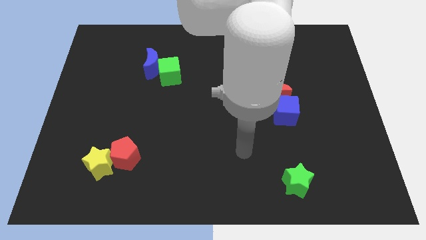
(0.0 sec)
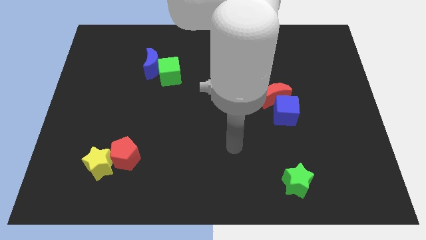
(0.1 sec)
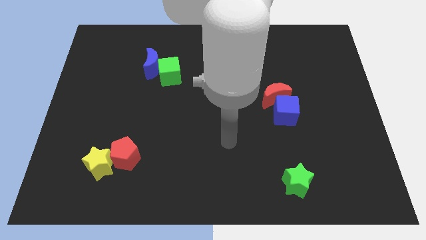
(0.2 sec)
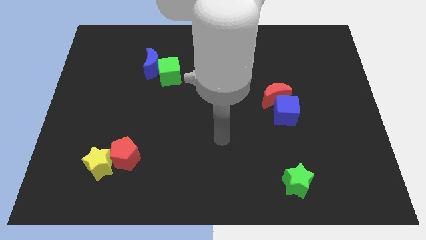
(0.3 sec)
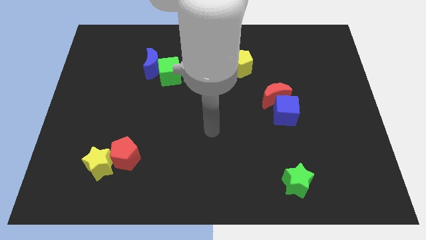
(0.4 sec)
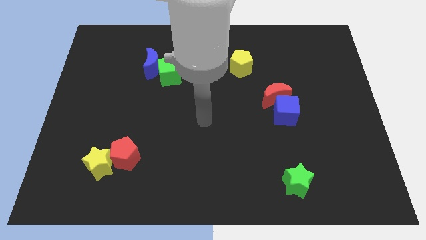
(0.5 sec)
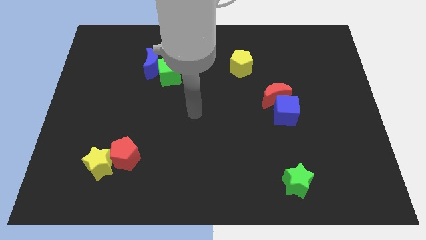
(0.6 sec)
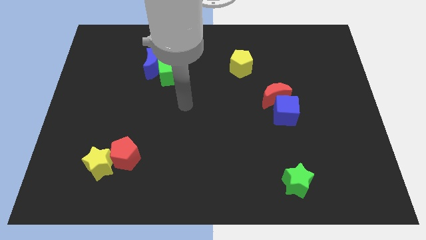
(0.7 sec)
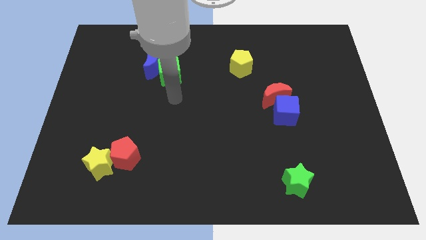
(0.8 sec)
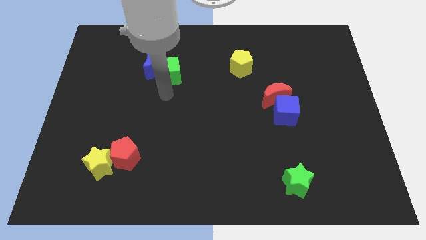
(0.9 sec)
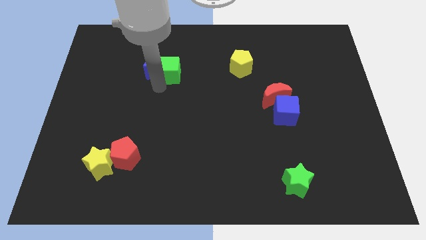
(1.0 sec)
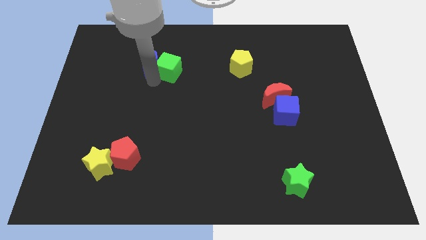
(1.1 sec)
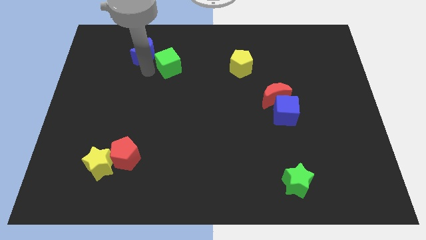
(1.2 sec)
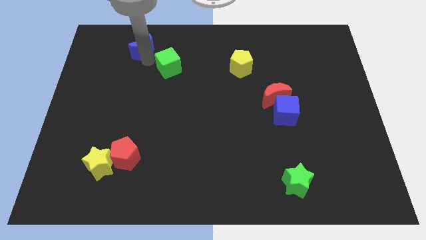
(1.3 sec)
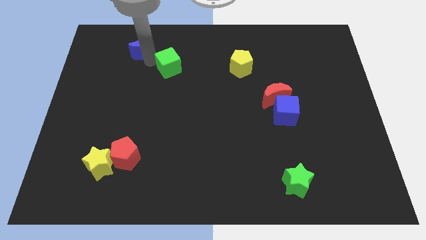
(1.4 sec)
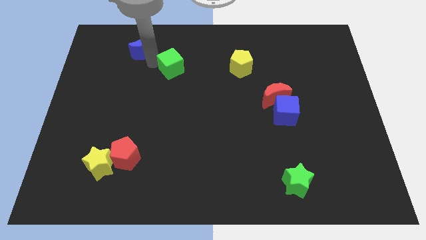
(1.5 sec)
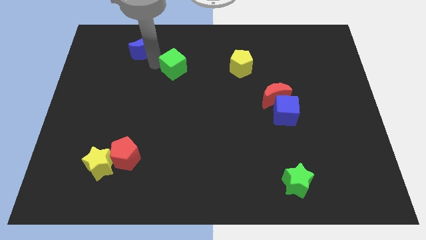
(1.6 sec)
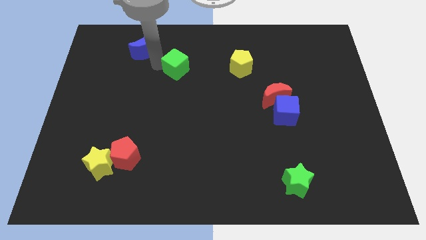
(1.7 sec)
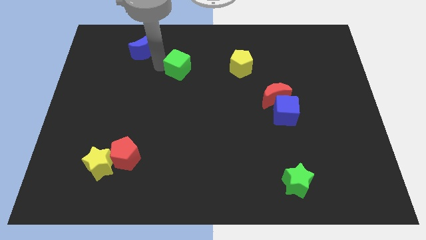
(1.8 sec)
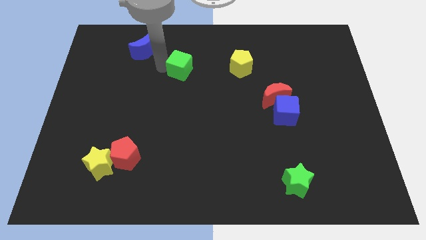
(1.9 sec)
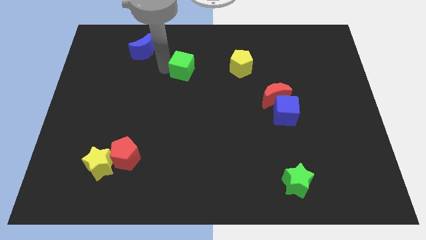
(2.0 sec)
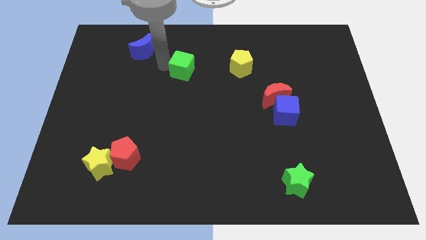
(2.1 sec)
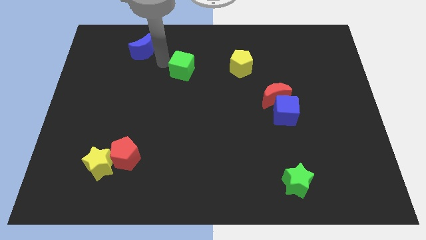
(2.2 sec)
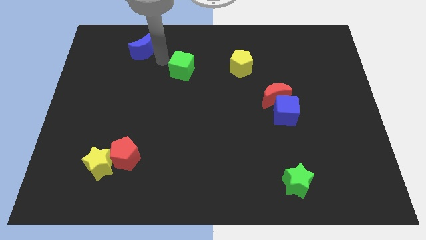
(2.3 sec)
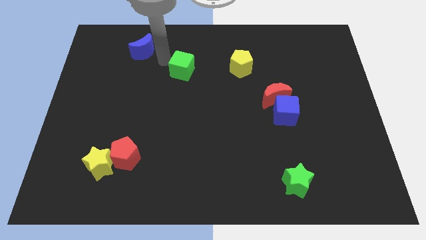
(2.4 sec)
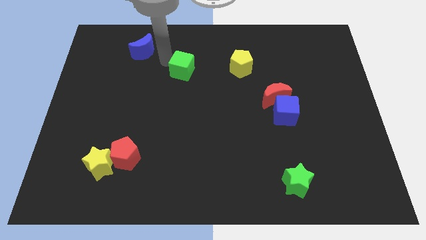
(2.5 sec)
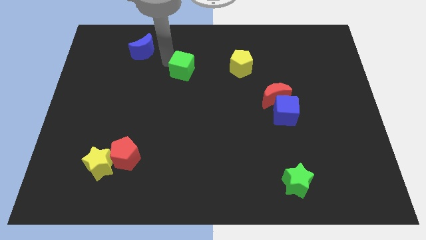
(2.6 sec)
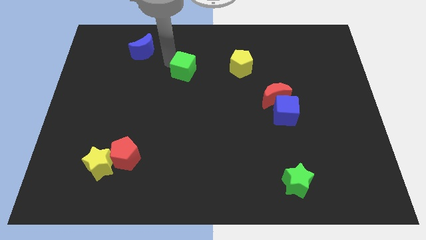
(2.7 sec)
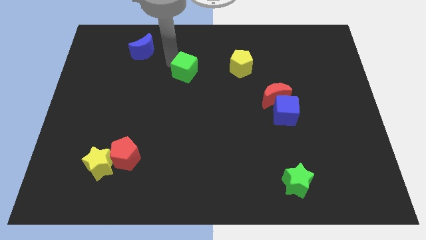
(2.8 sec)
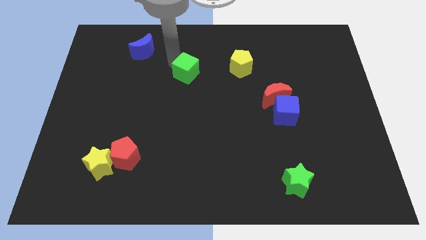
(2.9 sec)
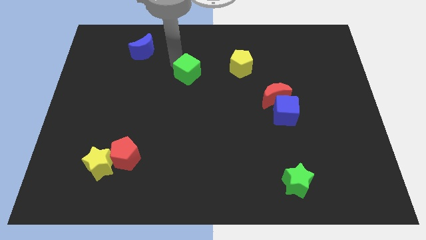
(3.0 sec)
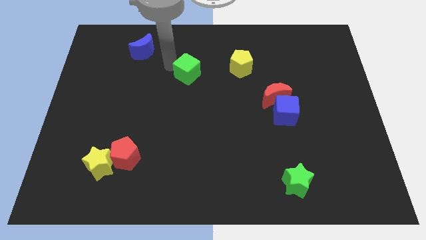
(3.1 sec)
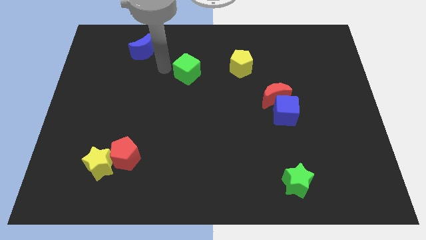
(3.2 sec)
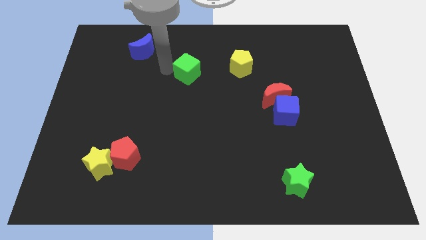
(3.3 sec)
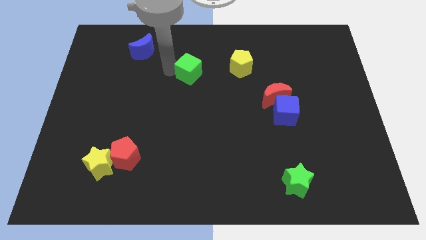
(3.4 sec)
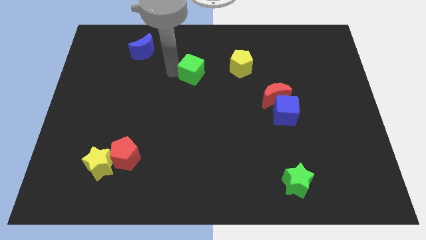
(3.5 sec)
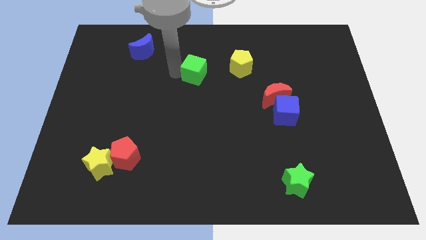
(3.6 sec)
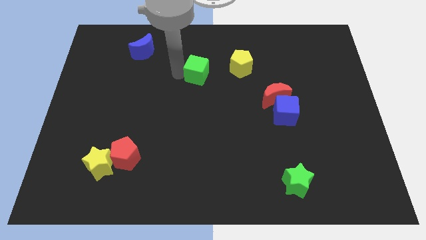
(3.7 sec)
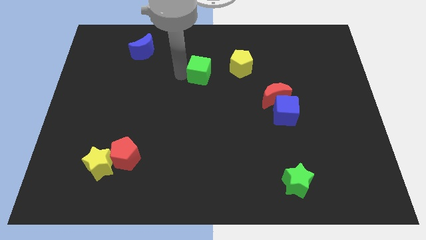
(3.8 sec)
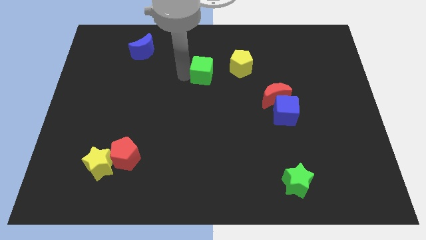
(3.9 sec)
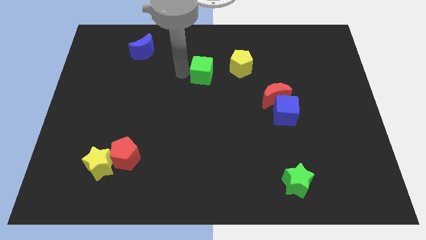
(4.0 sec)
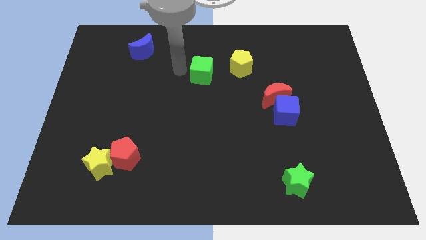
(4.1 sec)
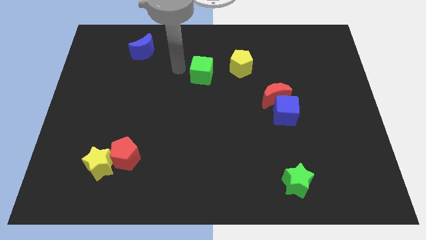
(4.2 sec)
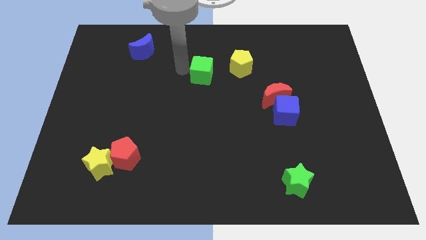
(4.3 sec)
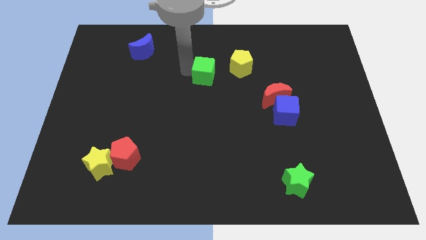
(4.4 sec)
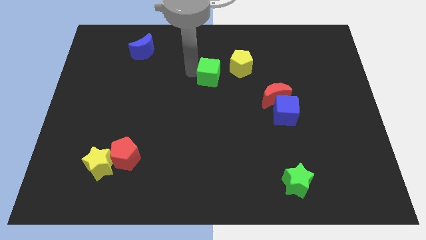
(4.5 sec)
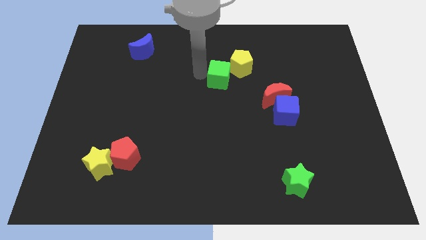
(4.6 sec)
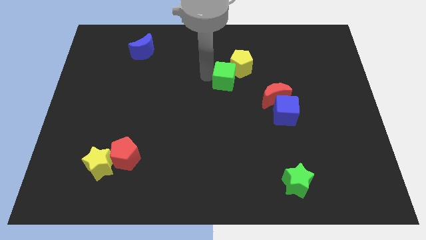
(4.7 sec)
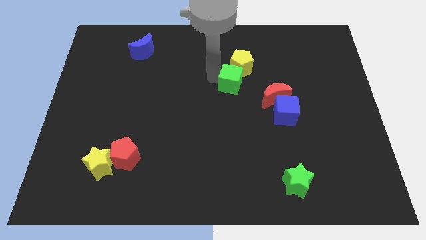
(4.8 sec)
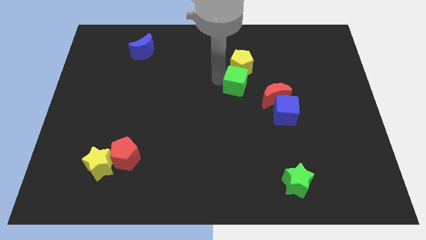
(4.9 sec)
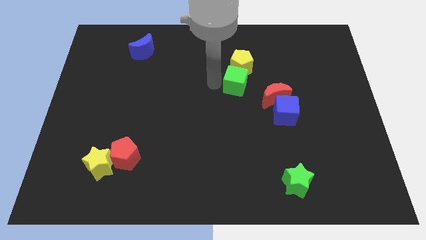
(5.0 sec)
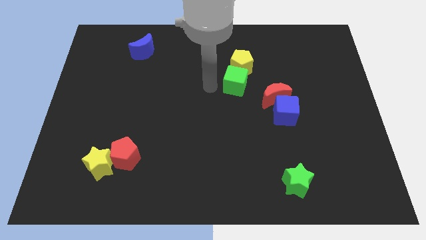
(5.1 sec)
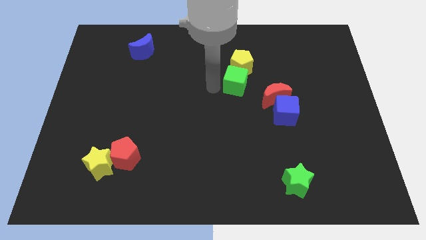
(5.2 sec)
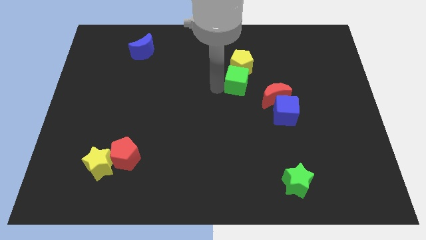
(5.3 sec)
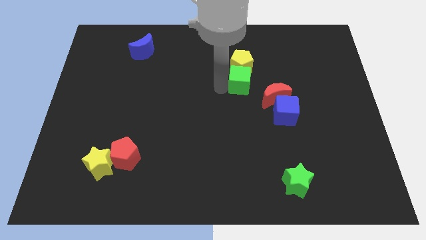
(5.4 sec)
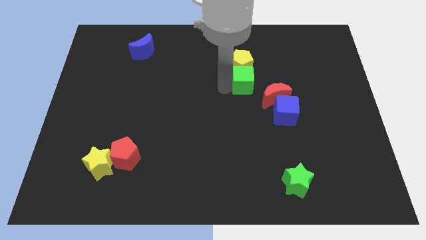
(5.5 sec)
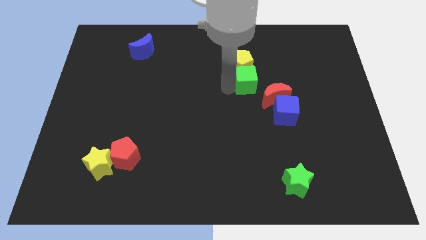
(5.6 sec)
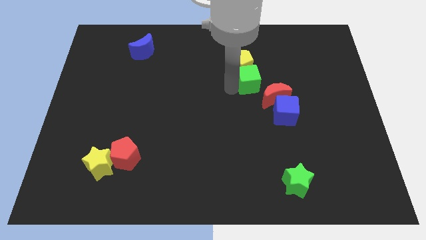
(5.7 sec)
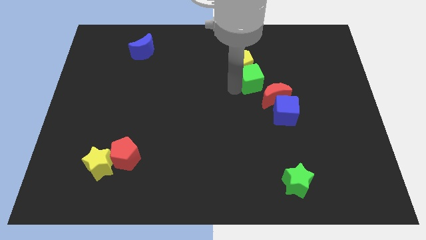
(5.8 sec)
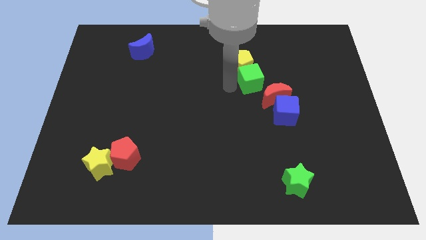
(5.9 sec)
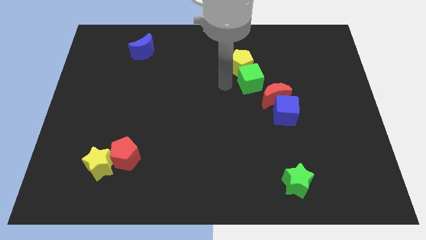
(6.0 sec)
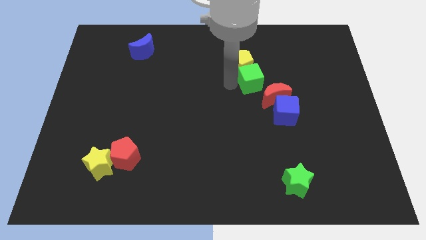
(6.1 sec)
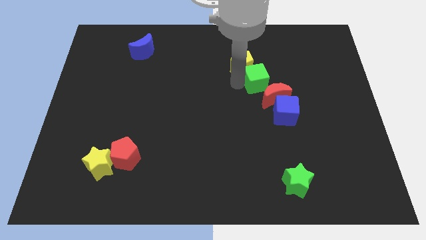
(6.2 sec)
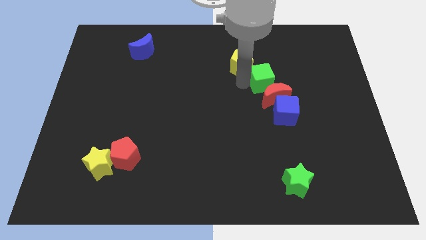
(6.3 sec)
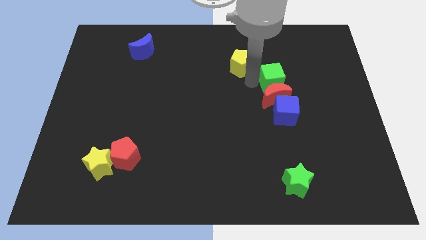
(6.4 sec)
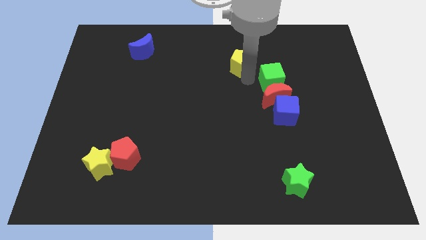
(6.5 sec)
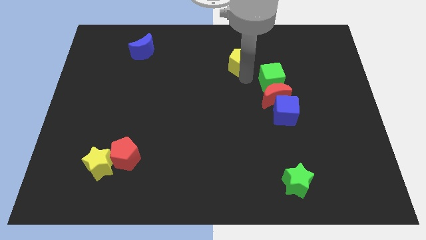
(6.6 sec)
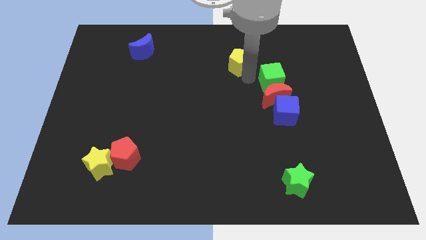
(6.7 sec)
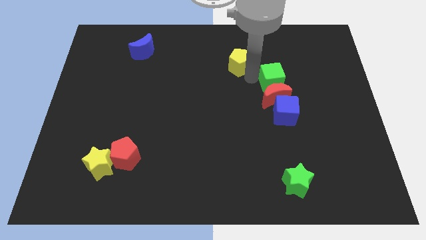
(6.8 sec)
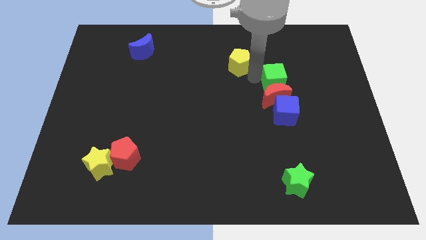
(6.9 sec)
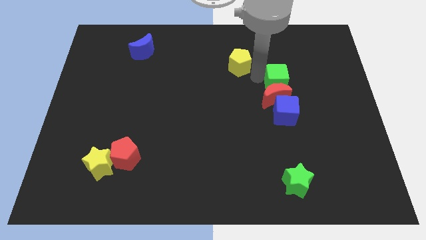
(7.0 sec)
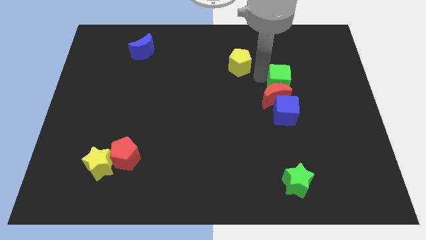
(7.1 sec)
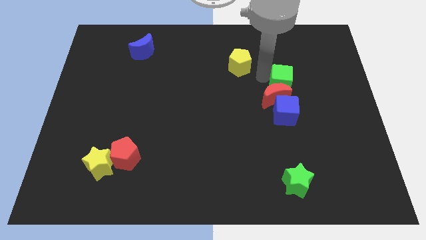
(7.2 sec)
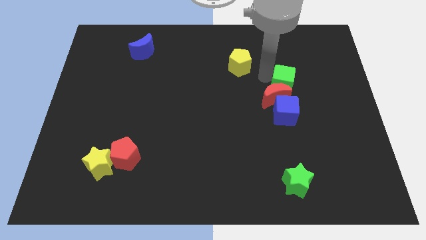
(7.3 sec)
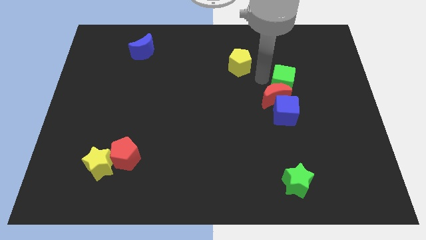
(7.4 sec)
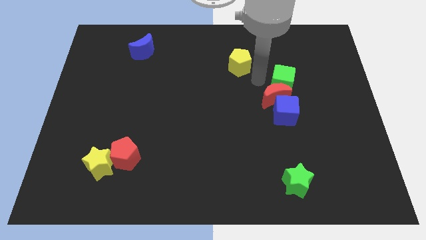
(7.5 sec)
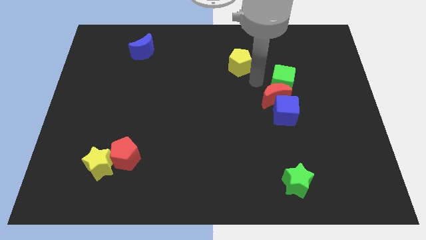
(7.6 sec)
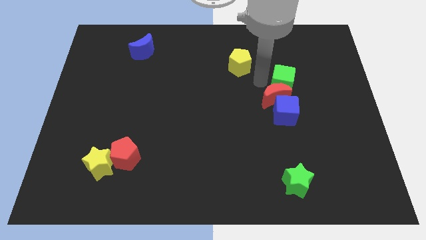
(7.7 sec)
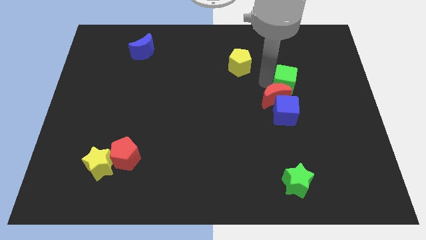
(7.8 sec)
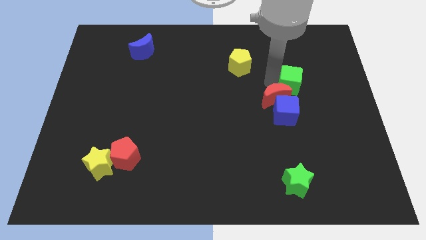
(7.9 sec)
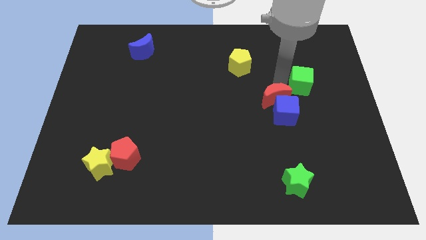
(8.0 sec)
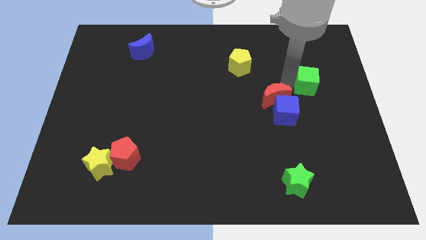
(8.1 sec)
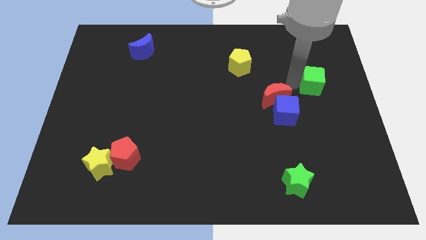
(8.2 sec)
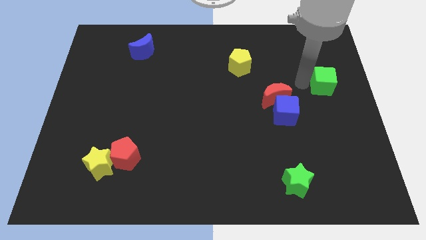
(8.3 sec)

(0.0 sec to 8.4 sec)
slide the green cube to the center right
